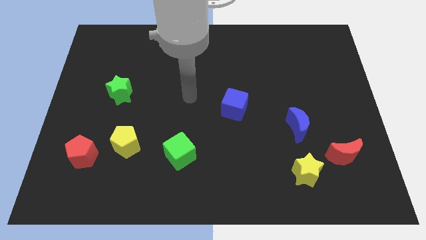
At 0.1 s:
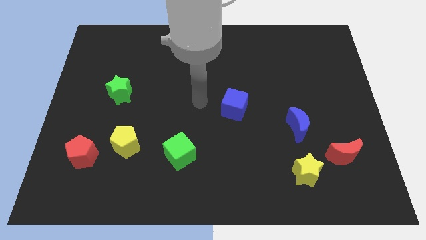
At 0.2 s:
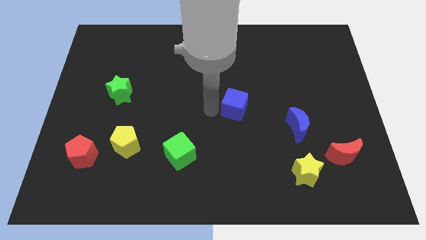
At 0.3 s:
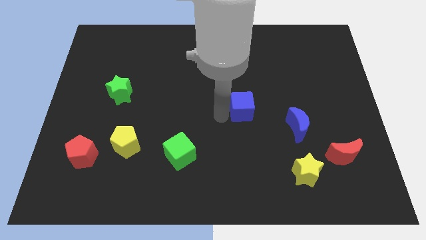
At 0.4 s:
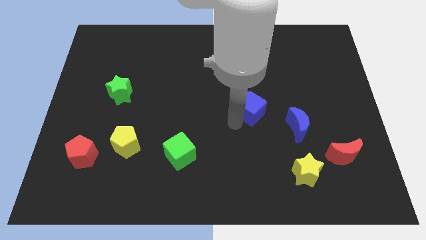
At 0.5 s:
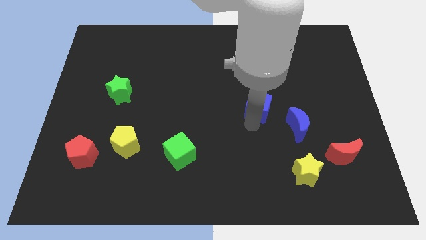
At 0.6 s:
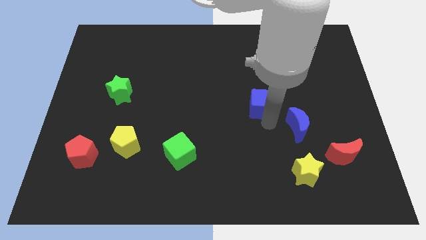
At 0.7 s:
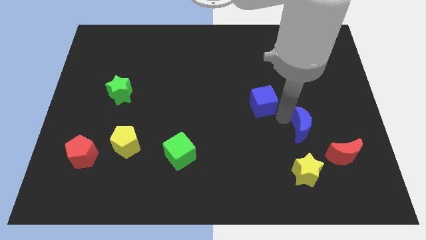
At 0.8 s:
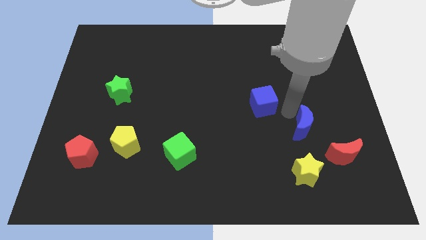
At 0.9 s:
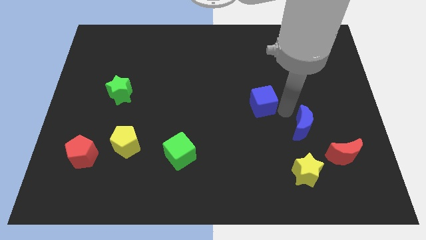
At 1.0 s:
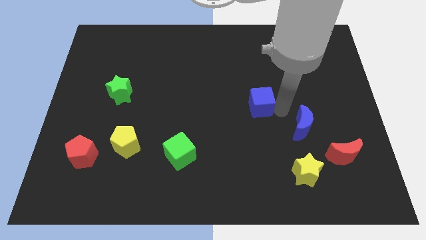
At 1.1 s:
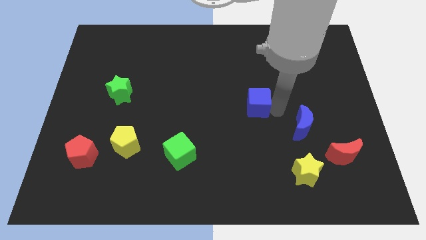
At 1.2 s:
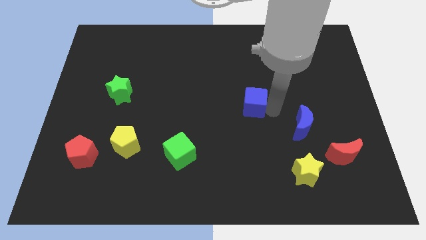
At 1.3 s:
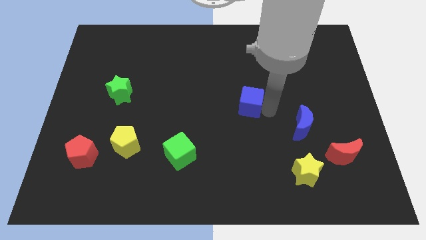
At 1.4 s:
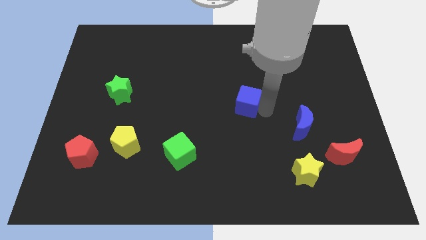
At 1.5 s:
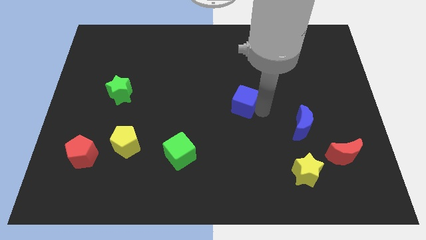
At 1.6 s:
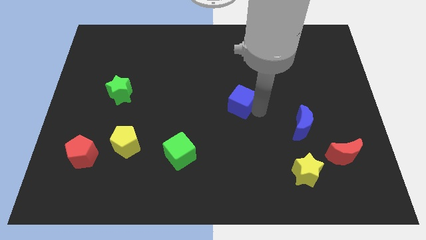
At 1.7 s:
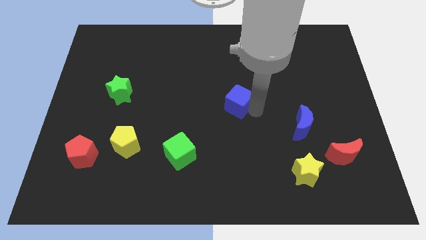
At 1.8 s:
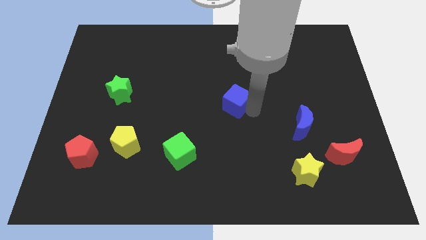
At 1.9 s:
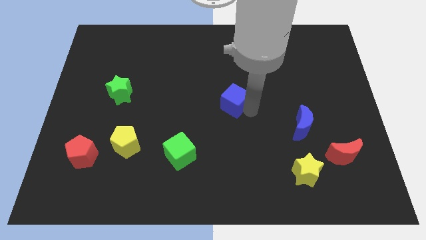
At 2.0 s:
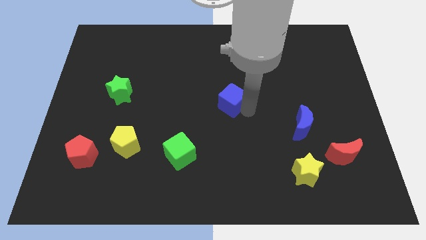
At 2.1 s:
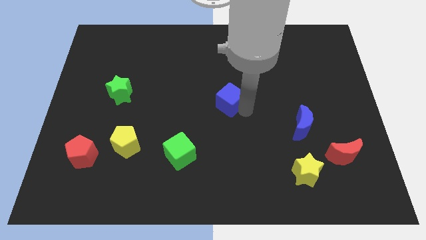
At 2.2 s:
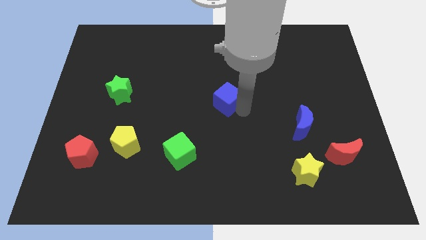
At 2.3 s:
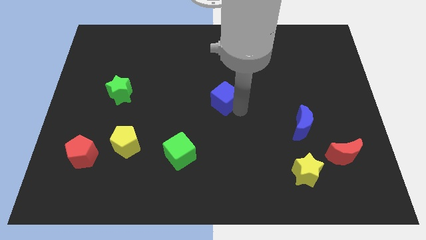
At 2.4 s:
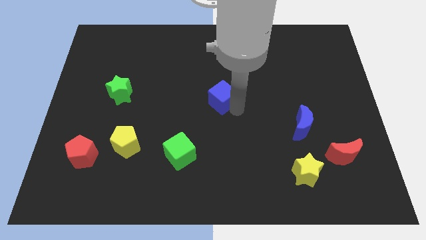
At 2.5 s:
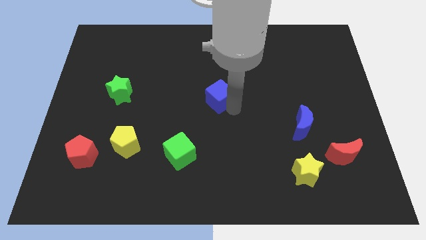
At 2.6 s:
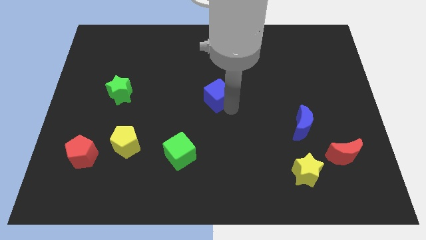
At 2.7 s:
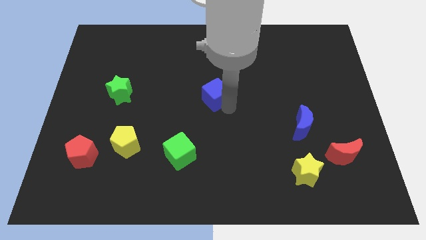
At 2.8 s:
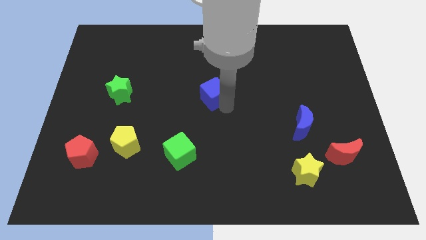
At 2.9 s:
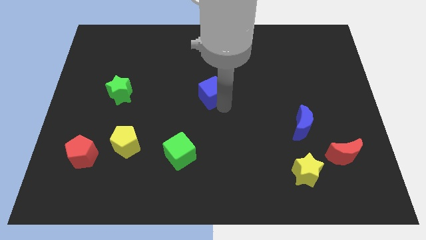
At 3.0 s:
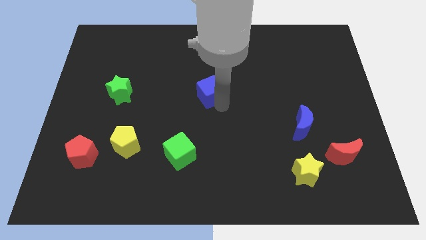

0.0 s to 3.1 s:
slightly move the blue cube diagonally upwards and left

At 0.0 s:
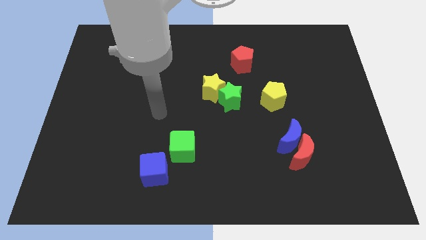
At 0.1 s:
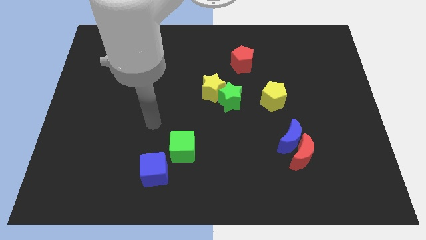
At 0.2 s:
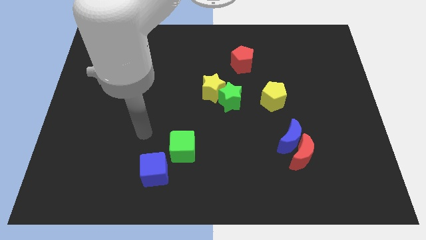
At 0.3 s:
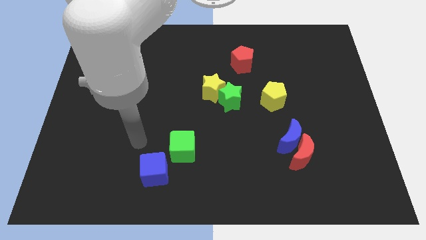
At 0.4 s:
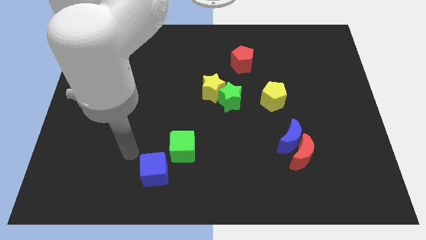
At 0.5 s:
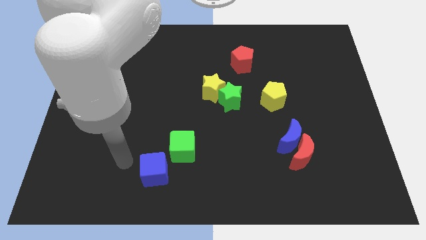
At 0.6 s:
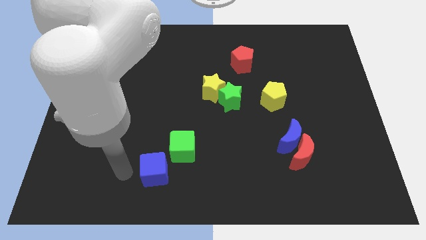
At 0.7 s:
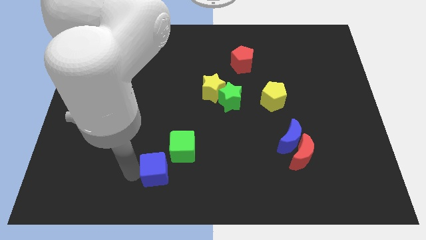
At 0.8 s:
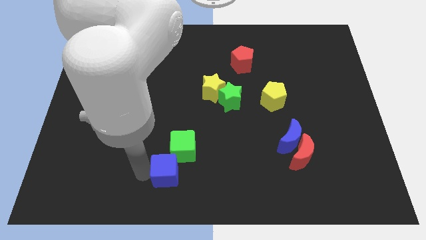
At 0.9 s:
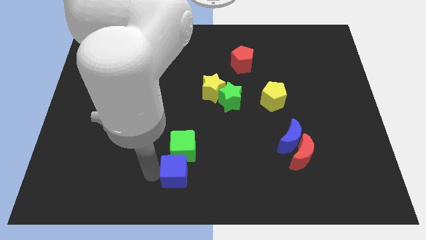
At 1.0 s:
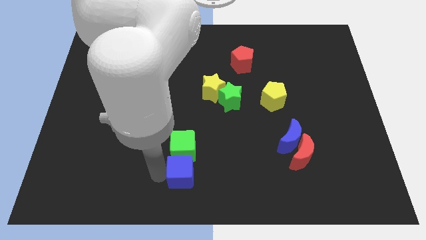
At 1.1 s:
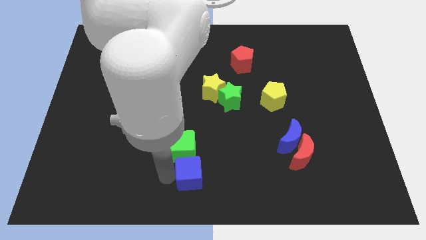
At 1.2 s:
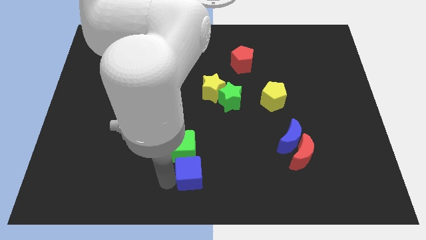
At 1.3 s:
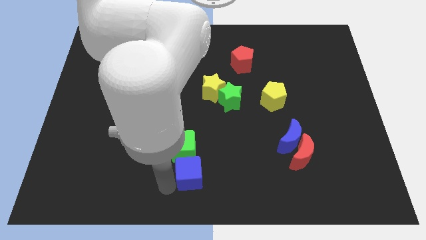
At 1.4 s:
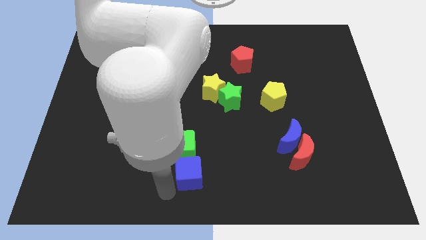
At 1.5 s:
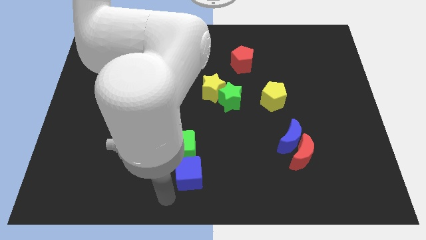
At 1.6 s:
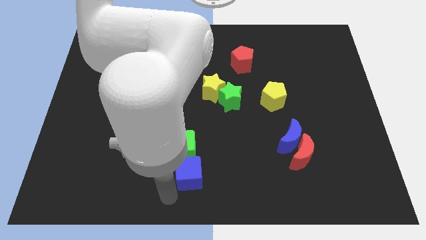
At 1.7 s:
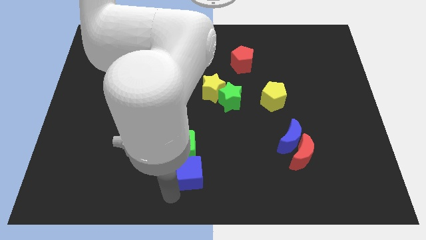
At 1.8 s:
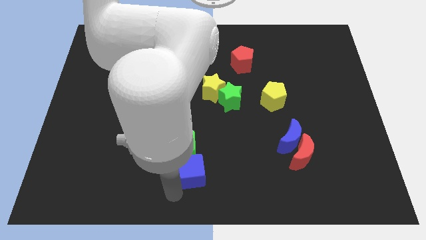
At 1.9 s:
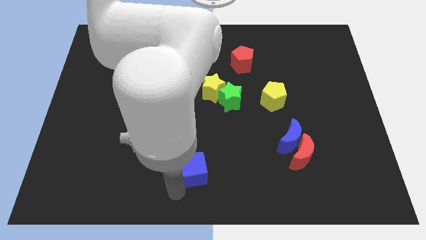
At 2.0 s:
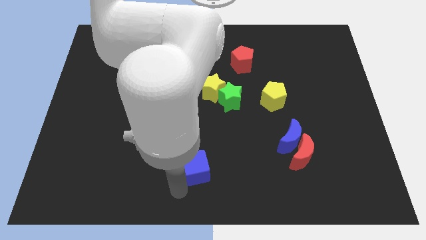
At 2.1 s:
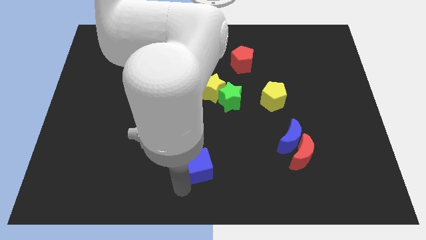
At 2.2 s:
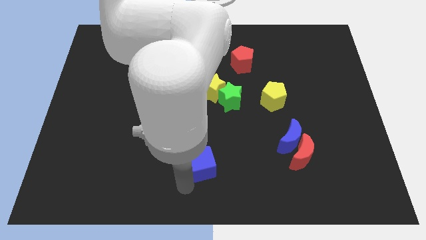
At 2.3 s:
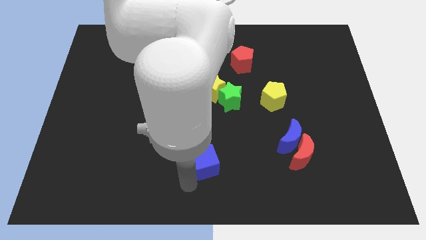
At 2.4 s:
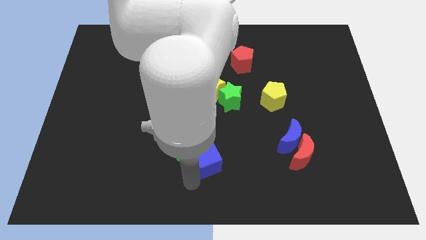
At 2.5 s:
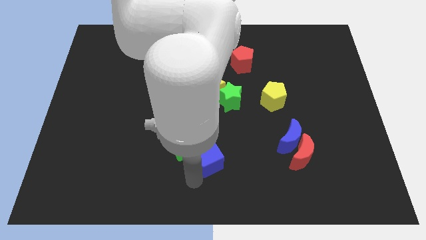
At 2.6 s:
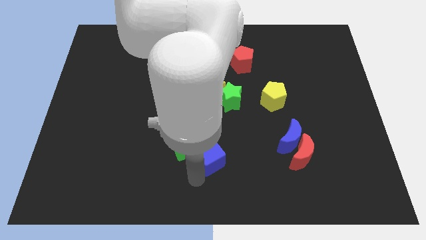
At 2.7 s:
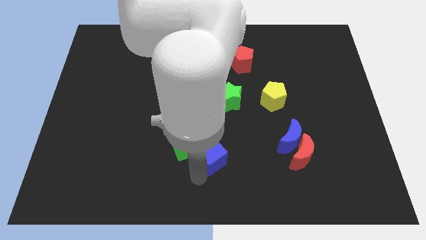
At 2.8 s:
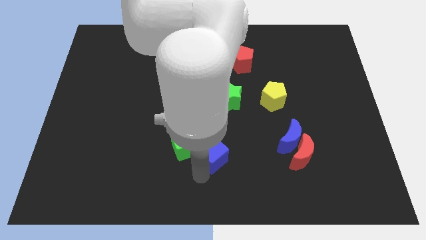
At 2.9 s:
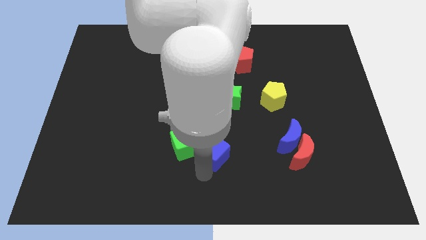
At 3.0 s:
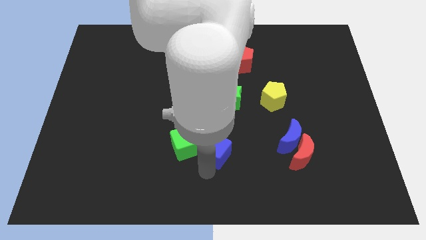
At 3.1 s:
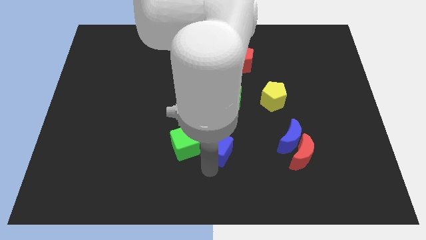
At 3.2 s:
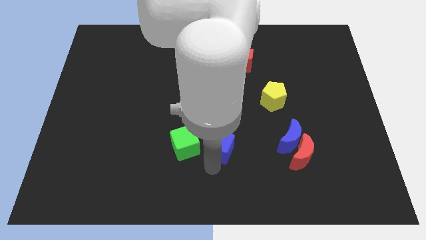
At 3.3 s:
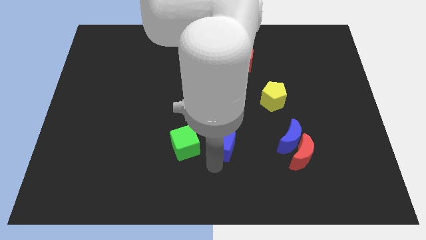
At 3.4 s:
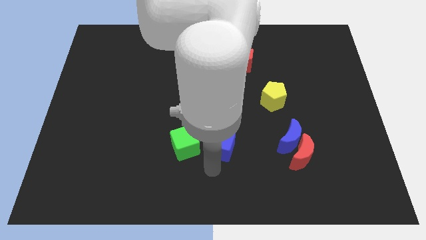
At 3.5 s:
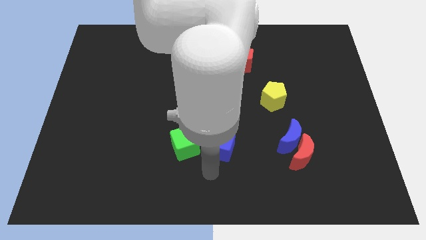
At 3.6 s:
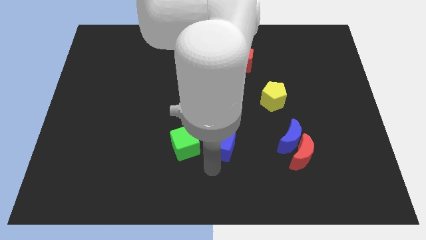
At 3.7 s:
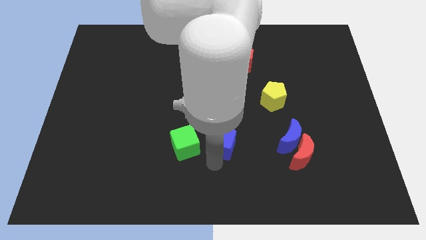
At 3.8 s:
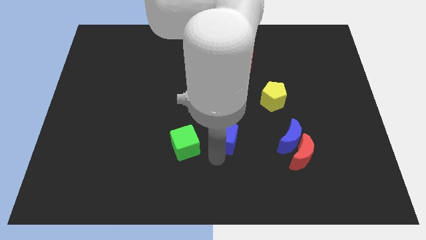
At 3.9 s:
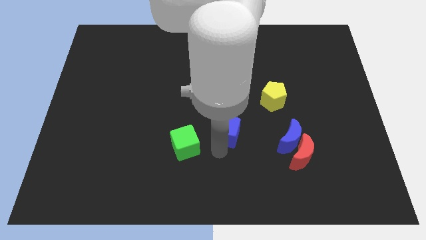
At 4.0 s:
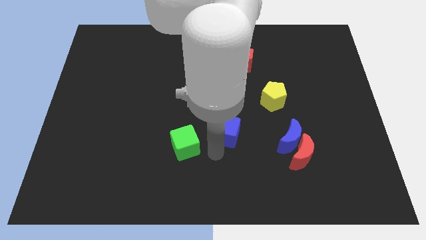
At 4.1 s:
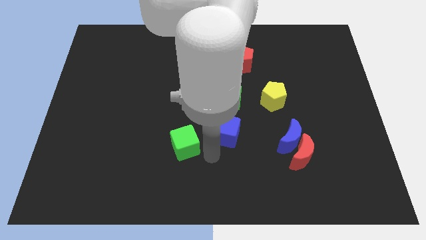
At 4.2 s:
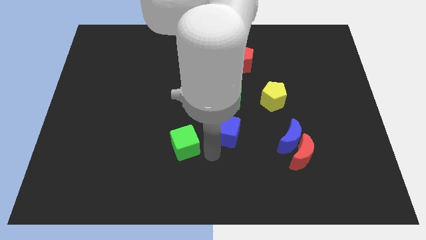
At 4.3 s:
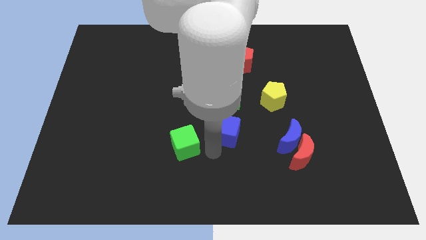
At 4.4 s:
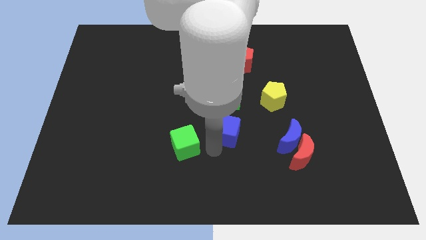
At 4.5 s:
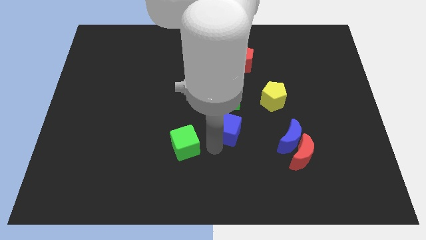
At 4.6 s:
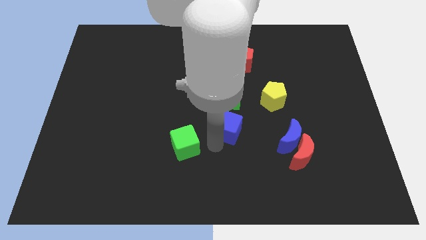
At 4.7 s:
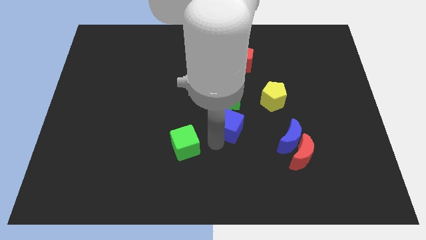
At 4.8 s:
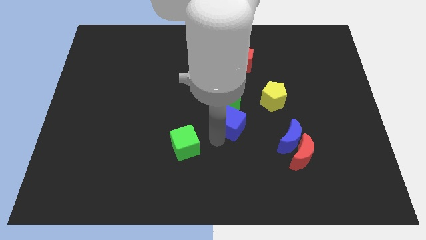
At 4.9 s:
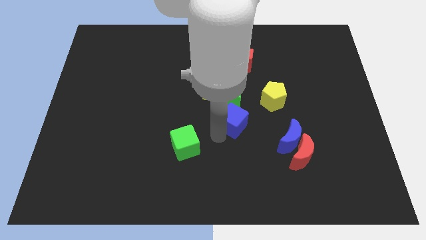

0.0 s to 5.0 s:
move the blue cube up and to the right diagonally

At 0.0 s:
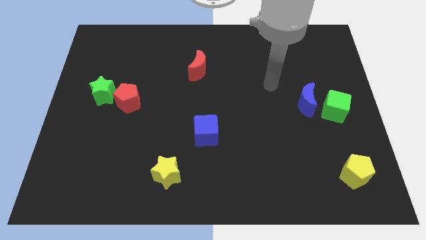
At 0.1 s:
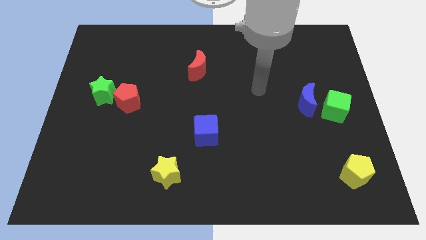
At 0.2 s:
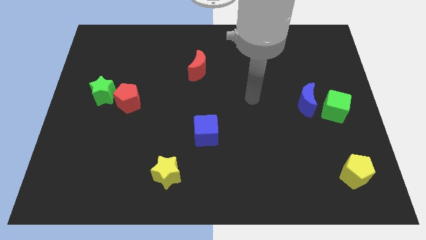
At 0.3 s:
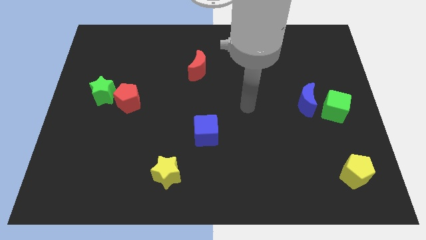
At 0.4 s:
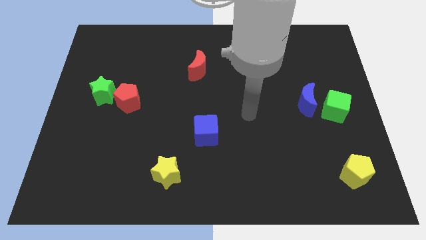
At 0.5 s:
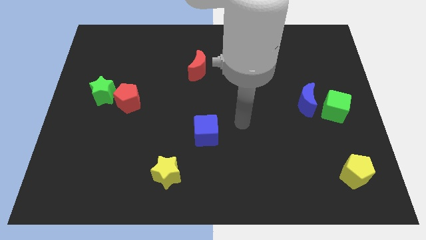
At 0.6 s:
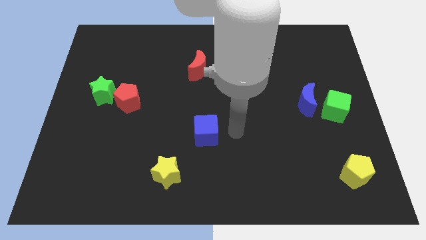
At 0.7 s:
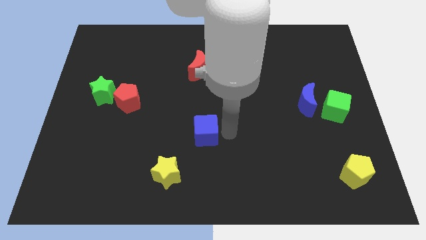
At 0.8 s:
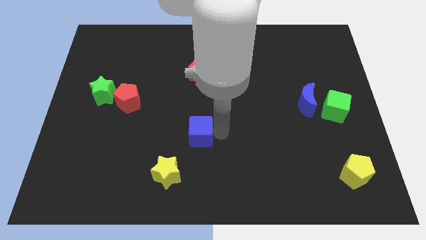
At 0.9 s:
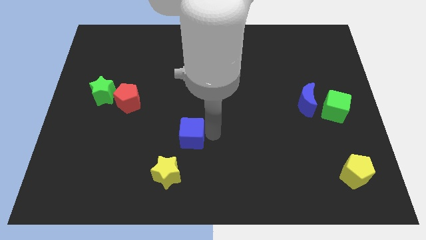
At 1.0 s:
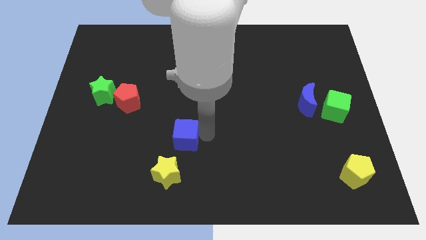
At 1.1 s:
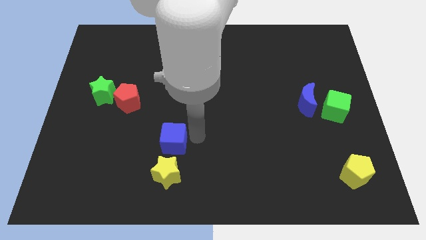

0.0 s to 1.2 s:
move the blue cube to the left a bit
